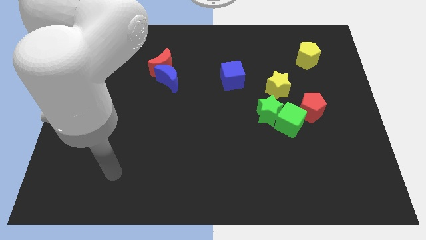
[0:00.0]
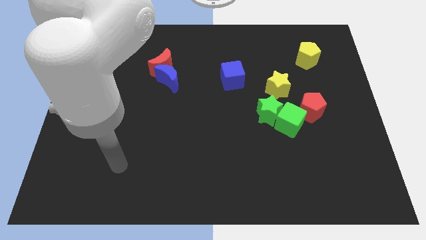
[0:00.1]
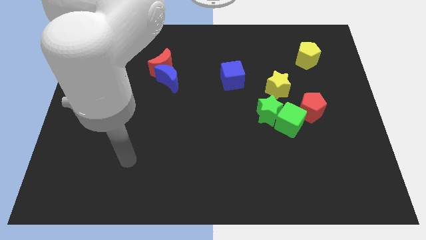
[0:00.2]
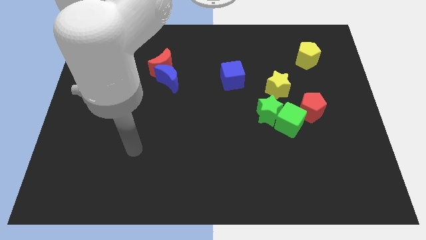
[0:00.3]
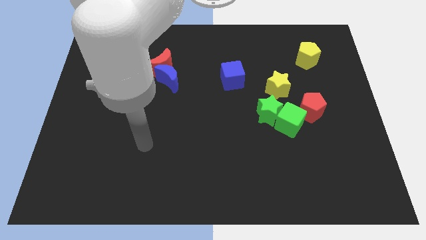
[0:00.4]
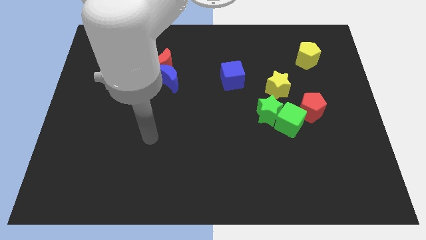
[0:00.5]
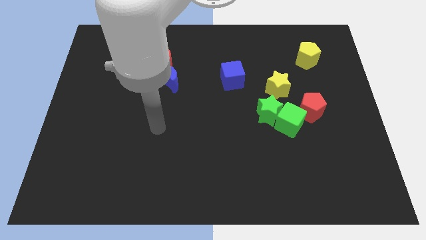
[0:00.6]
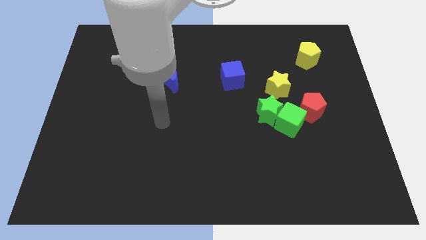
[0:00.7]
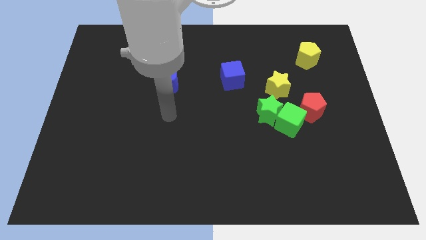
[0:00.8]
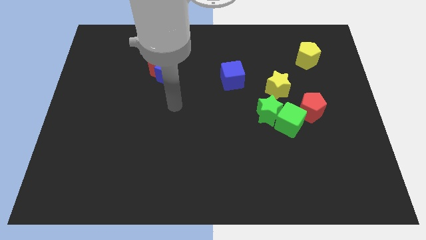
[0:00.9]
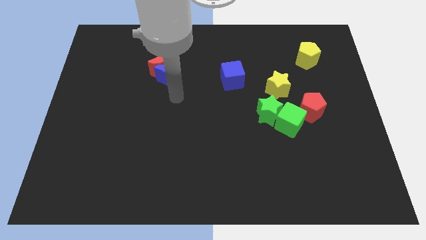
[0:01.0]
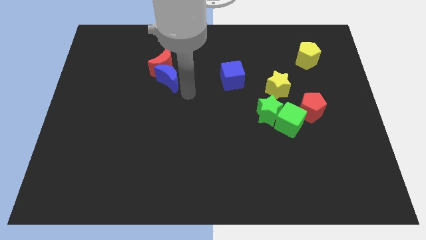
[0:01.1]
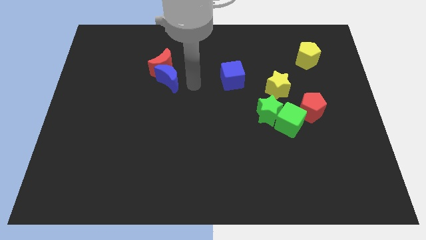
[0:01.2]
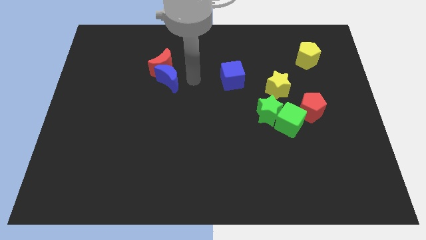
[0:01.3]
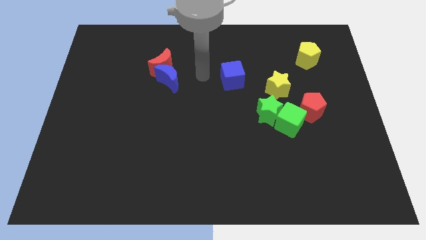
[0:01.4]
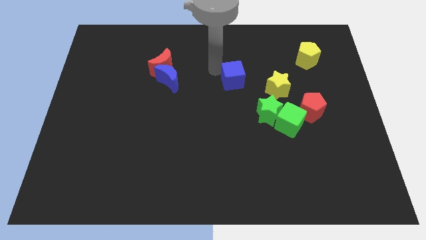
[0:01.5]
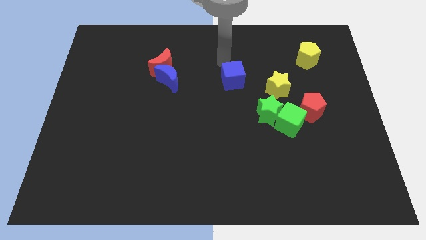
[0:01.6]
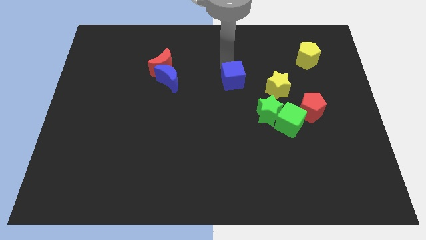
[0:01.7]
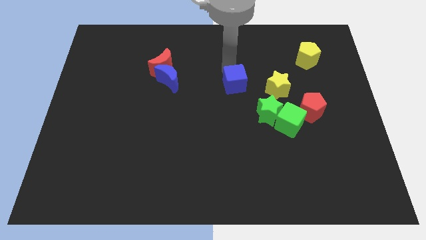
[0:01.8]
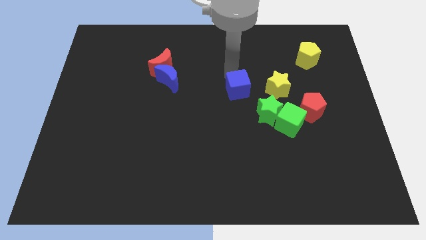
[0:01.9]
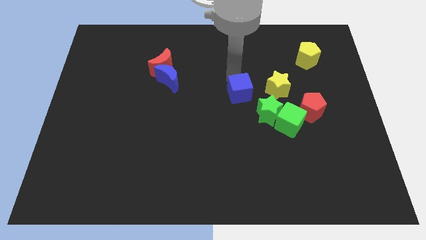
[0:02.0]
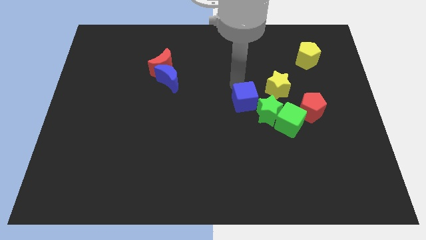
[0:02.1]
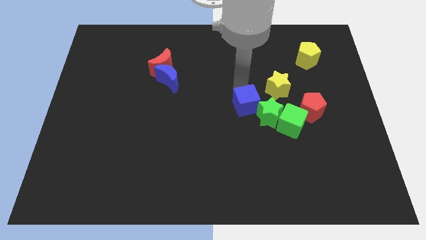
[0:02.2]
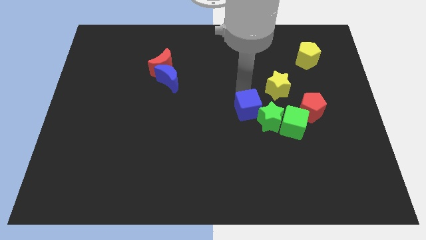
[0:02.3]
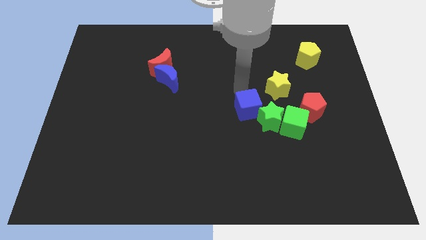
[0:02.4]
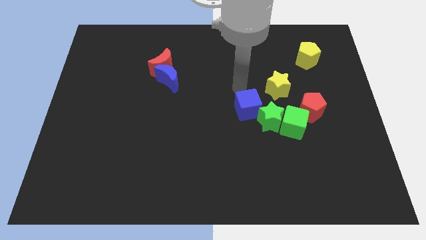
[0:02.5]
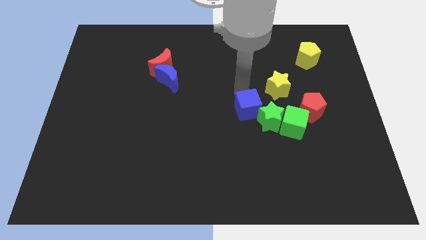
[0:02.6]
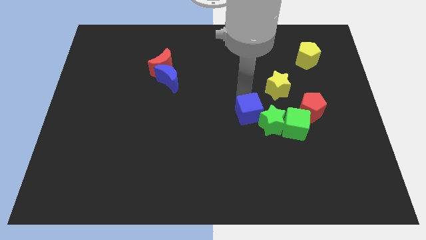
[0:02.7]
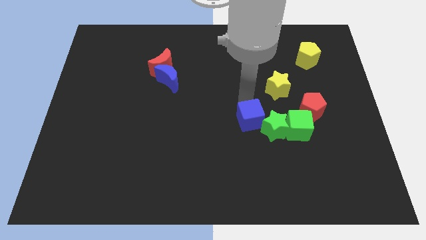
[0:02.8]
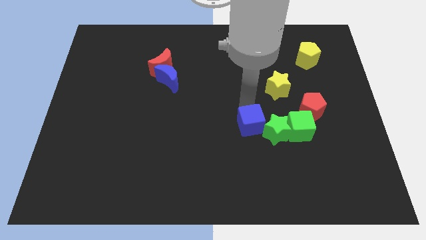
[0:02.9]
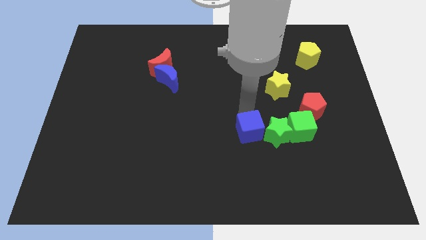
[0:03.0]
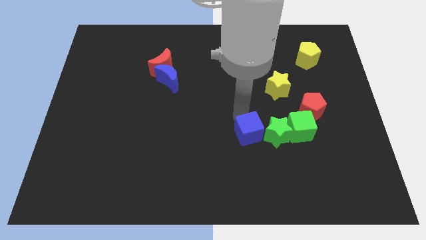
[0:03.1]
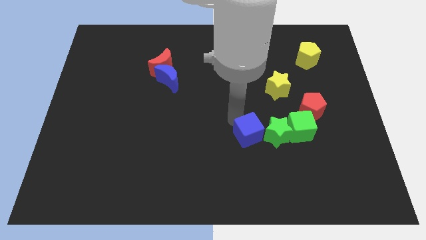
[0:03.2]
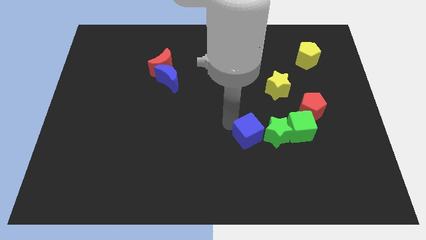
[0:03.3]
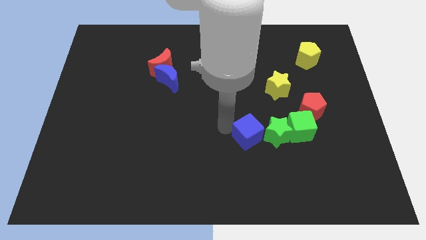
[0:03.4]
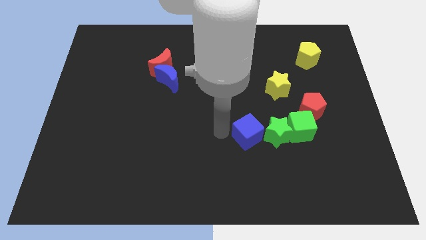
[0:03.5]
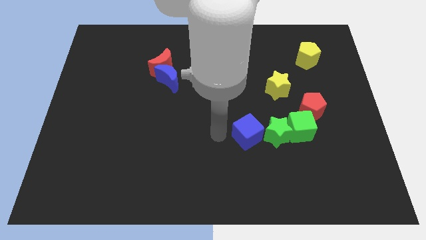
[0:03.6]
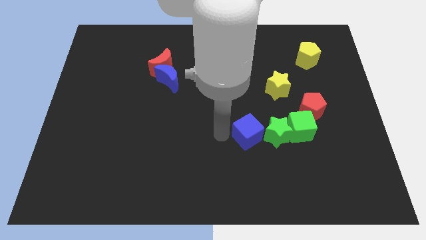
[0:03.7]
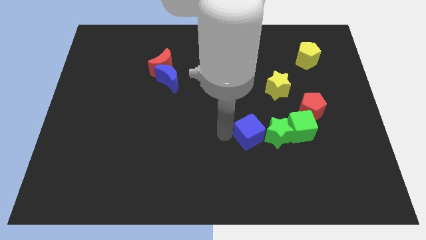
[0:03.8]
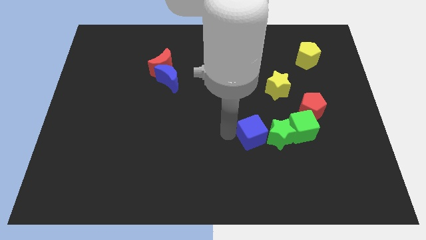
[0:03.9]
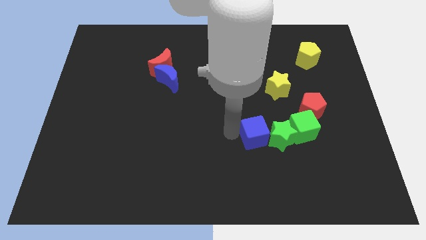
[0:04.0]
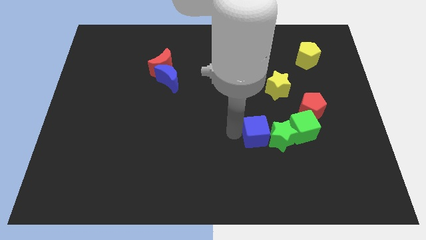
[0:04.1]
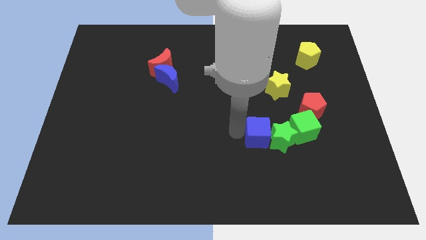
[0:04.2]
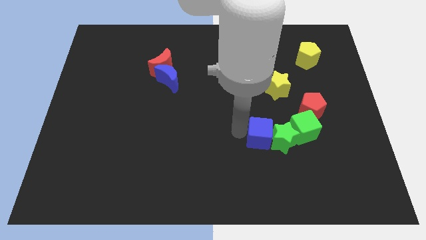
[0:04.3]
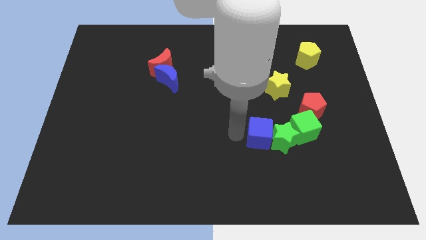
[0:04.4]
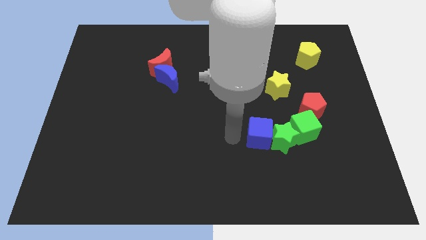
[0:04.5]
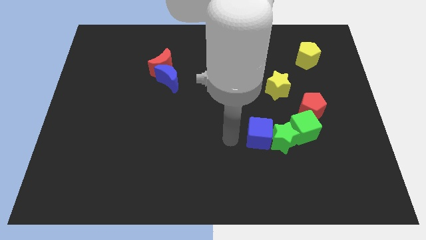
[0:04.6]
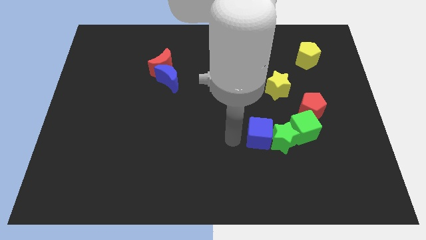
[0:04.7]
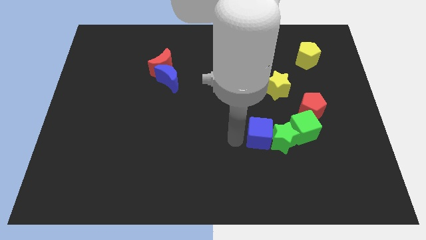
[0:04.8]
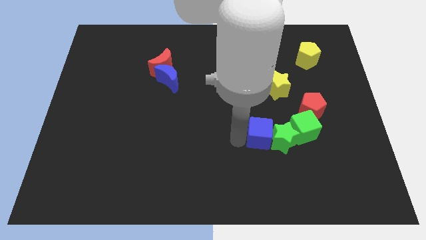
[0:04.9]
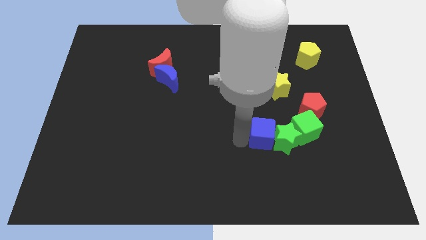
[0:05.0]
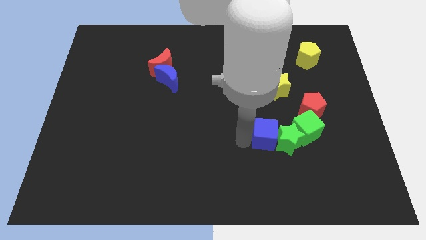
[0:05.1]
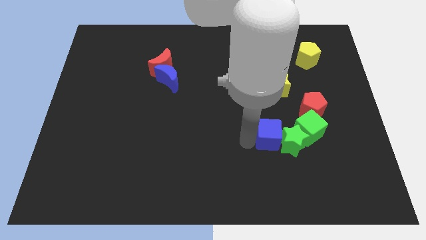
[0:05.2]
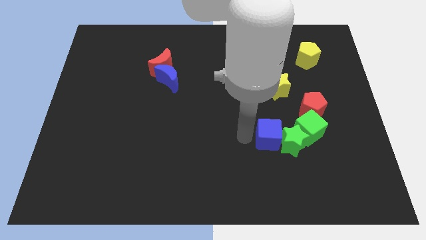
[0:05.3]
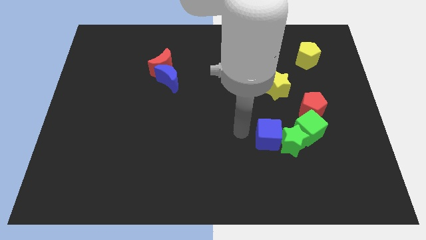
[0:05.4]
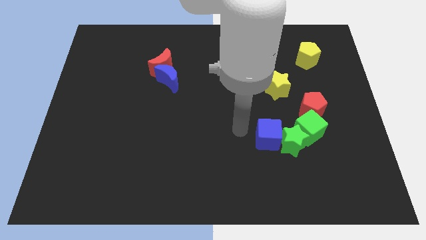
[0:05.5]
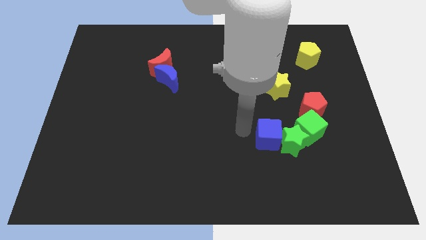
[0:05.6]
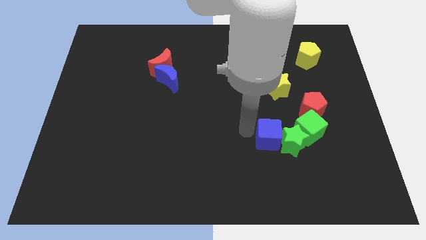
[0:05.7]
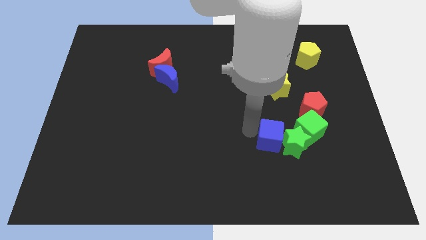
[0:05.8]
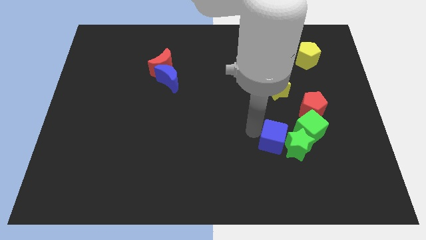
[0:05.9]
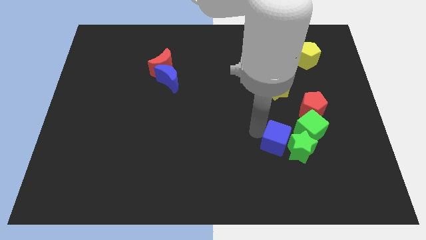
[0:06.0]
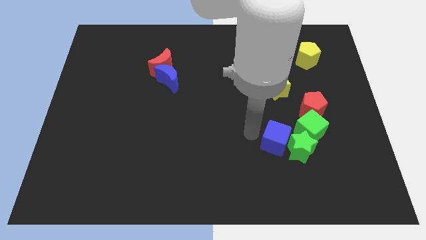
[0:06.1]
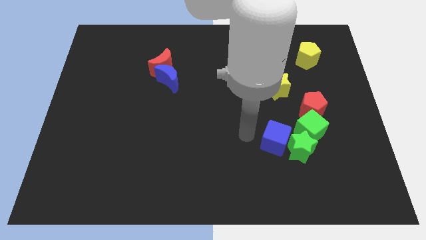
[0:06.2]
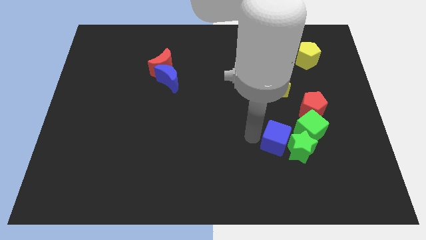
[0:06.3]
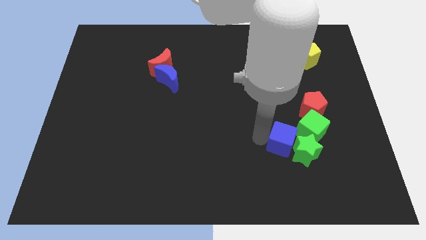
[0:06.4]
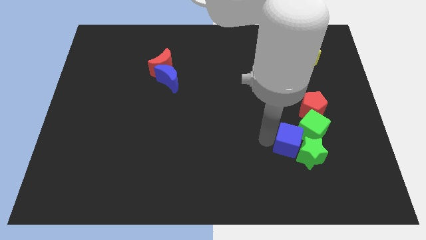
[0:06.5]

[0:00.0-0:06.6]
push the blue cube downwards and right diagonally

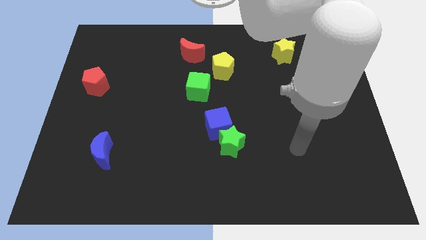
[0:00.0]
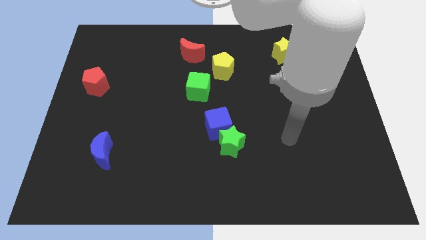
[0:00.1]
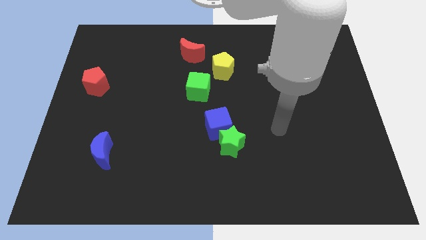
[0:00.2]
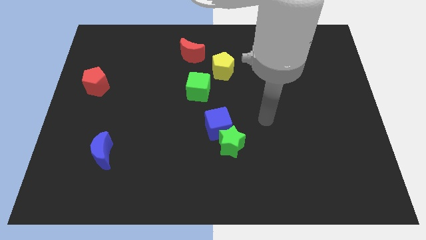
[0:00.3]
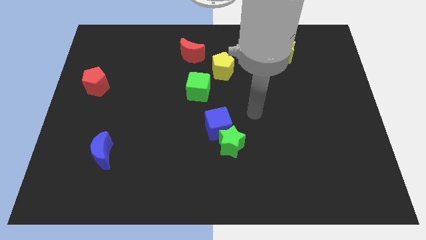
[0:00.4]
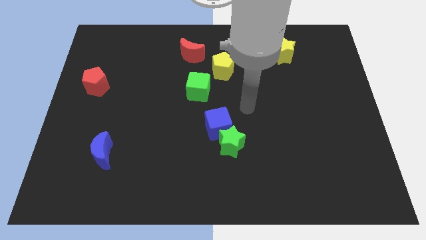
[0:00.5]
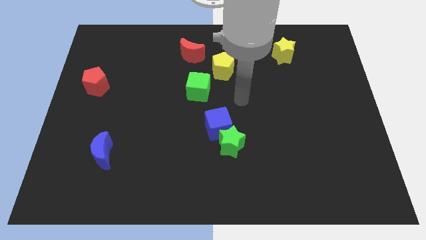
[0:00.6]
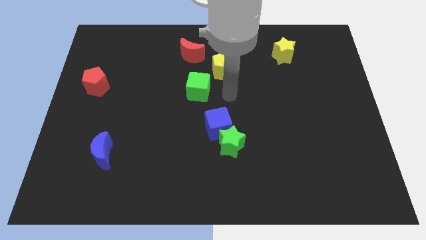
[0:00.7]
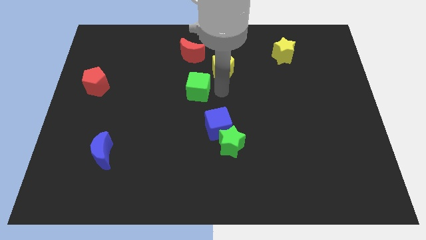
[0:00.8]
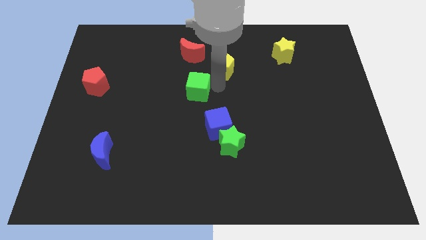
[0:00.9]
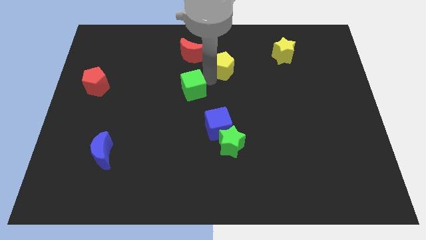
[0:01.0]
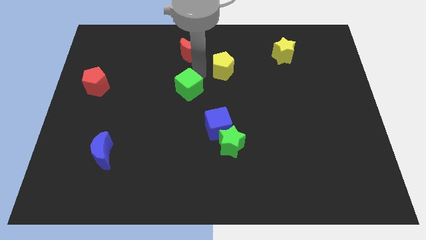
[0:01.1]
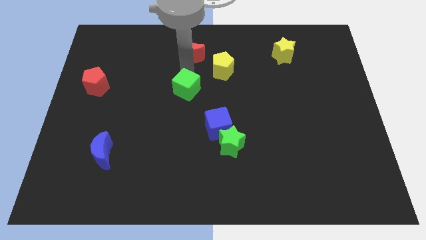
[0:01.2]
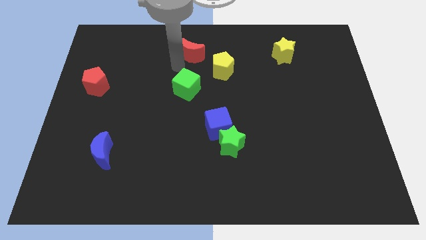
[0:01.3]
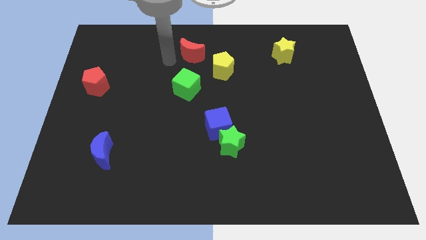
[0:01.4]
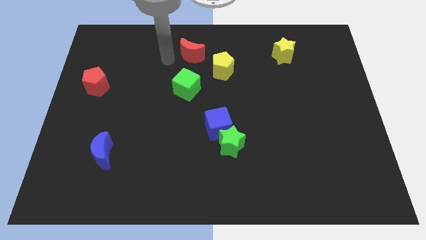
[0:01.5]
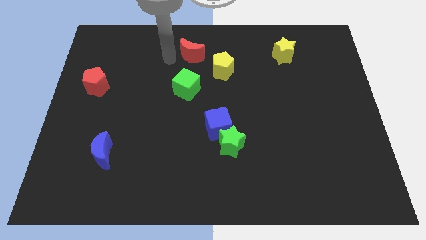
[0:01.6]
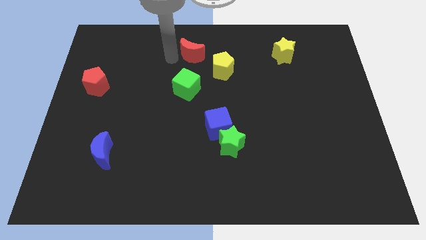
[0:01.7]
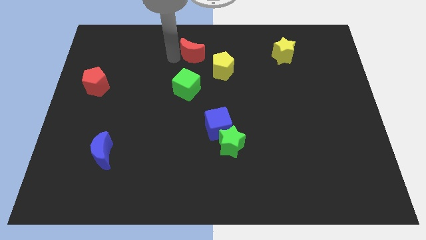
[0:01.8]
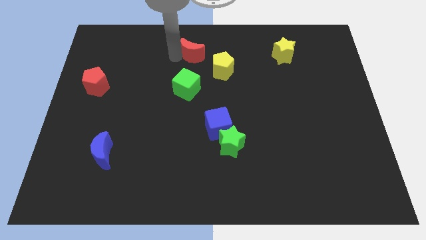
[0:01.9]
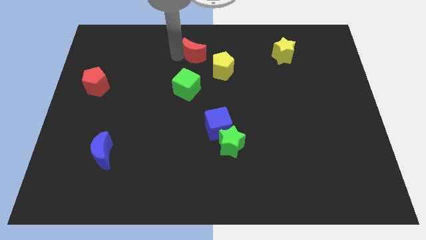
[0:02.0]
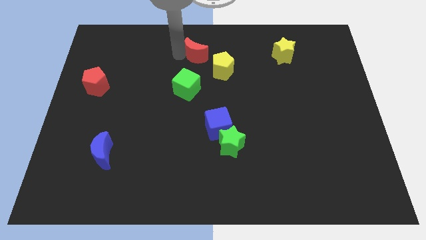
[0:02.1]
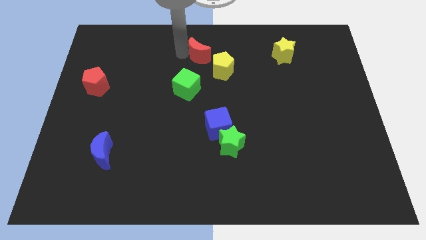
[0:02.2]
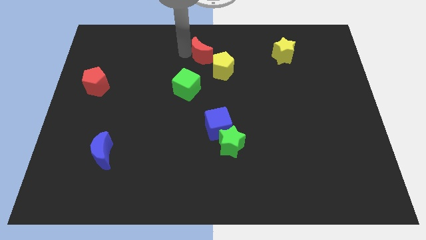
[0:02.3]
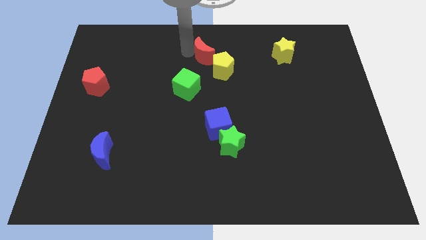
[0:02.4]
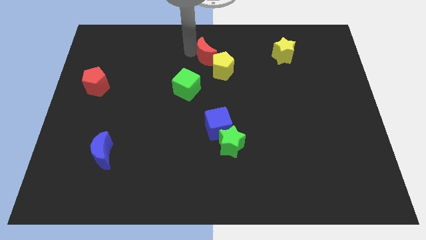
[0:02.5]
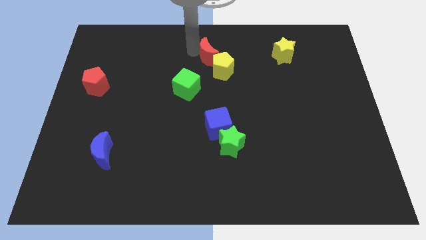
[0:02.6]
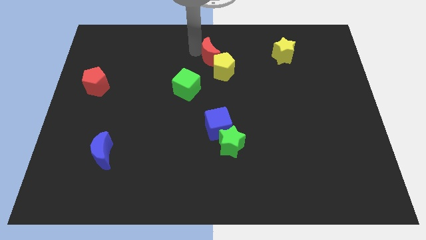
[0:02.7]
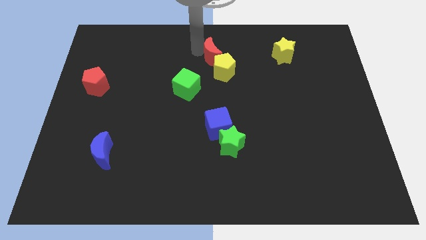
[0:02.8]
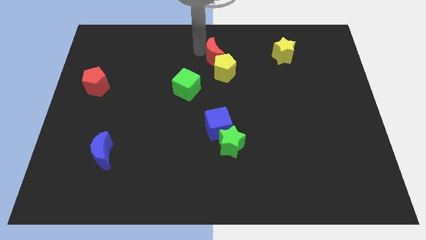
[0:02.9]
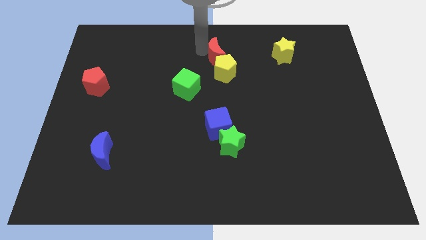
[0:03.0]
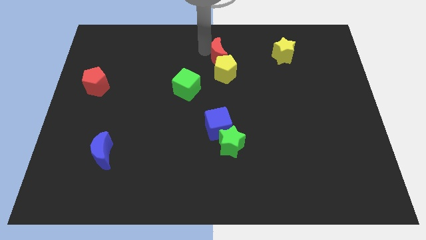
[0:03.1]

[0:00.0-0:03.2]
slide the red moon to the right somewhat
